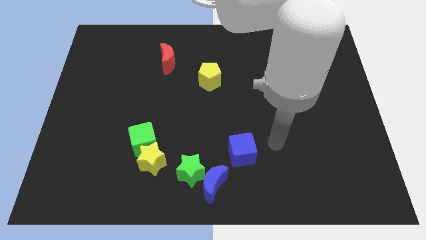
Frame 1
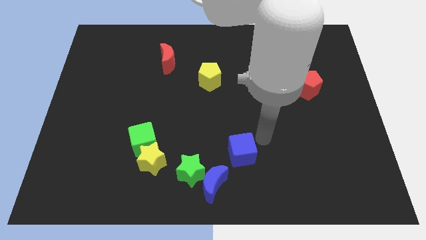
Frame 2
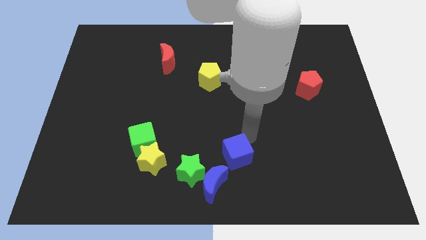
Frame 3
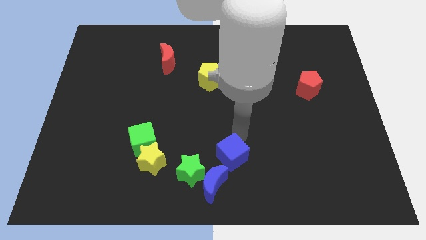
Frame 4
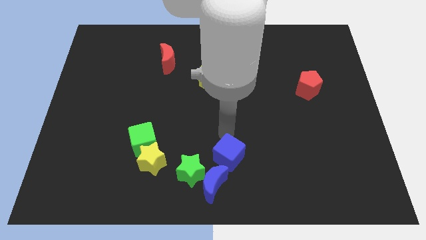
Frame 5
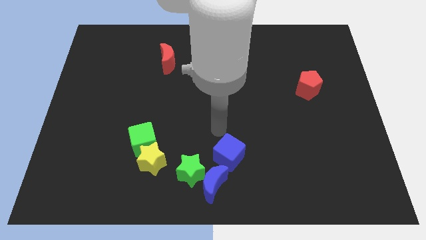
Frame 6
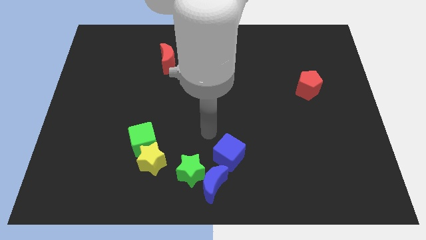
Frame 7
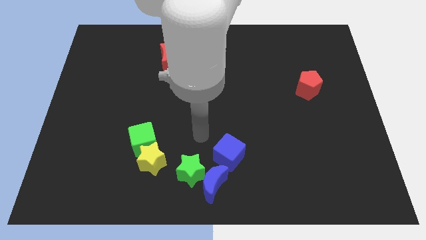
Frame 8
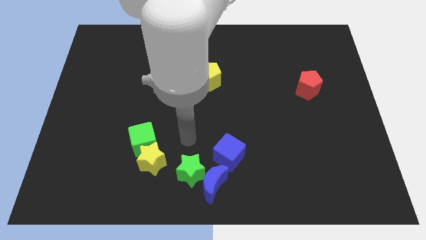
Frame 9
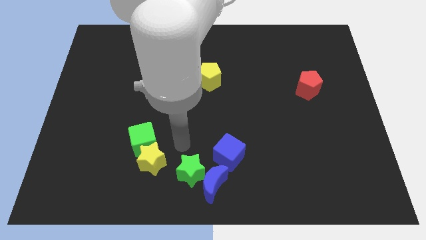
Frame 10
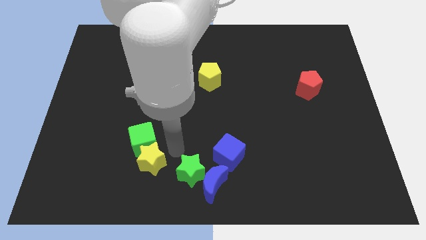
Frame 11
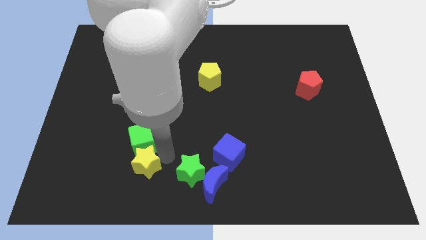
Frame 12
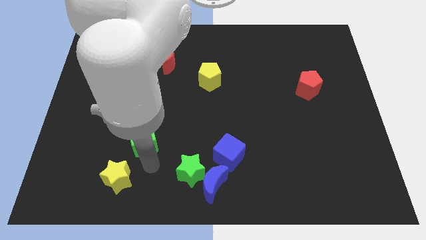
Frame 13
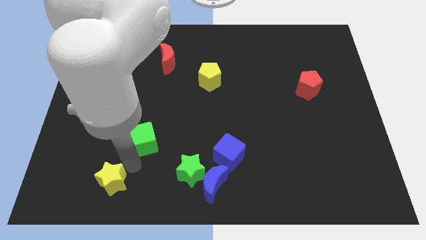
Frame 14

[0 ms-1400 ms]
move the green cube away from the yellow star

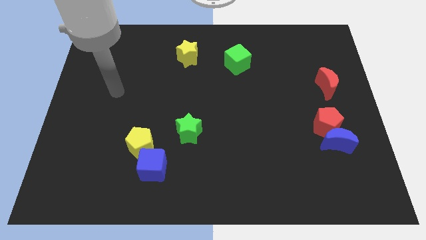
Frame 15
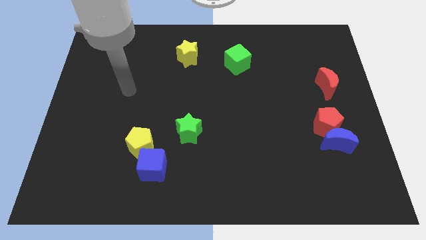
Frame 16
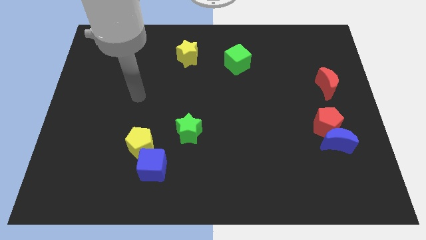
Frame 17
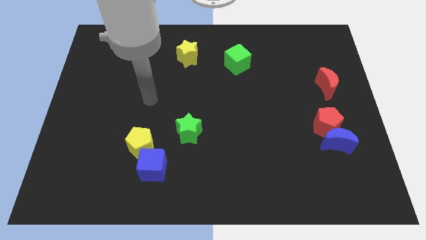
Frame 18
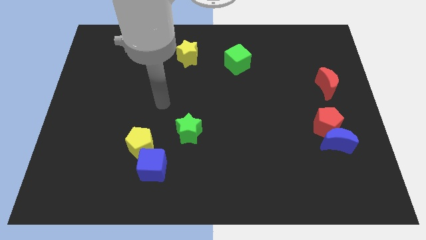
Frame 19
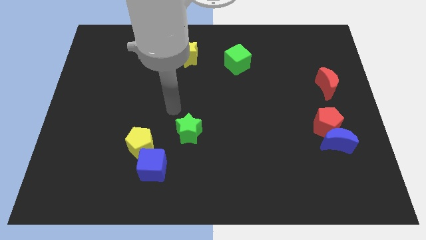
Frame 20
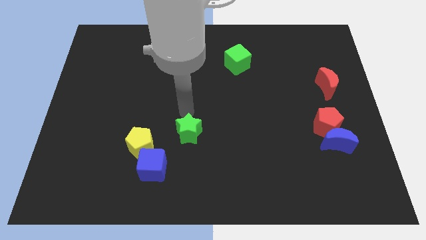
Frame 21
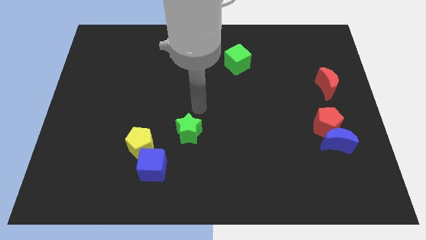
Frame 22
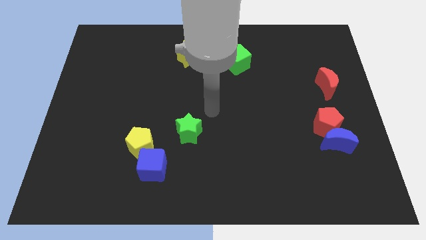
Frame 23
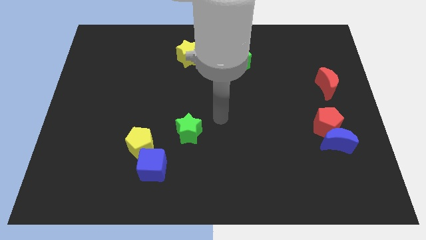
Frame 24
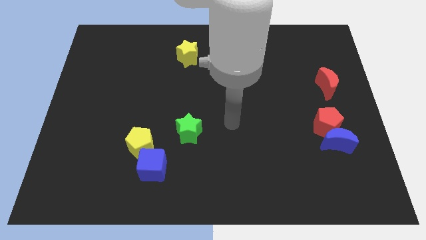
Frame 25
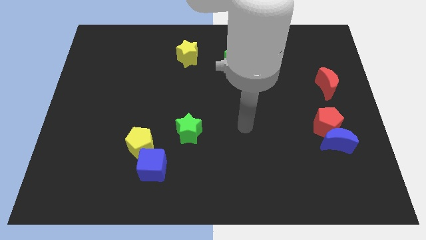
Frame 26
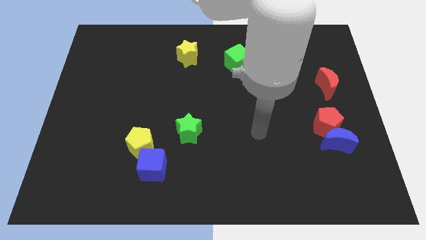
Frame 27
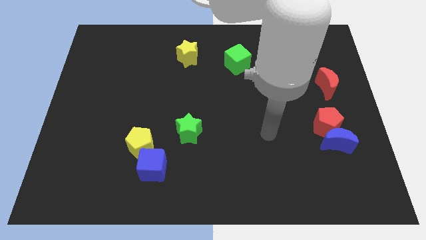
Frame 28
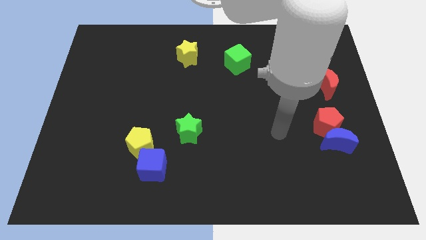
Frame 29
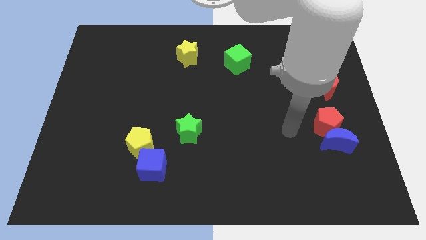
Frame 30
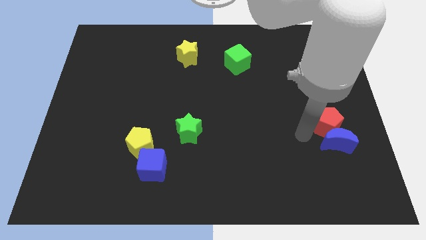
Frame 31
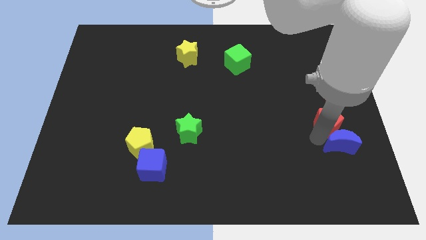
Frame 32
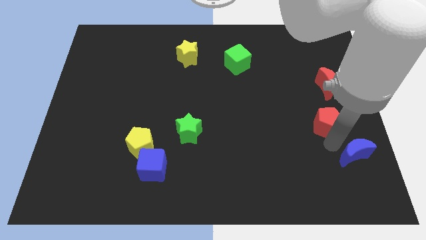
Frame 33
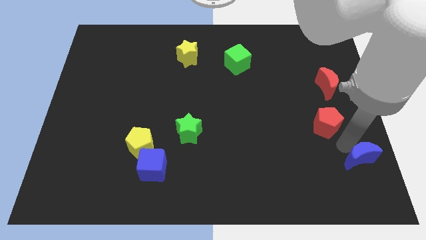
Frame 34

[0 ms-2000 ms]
separate the red pentagon from the blue moon

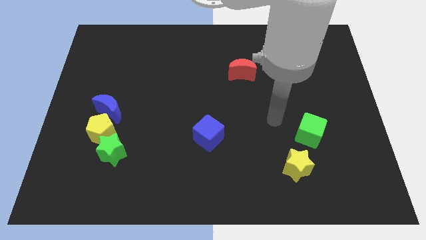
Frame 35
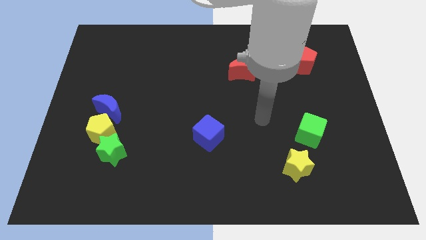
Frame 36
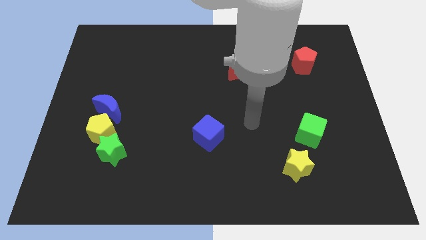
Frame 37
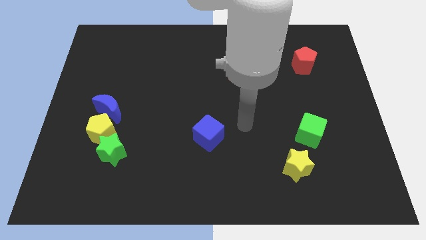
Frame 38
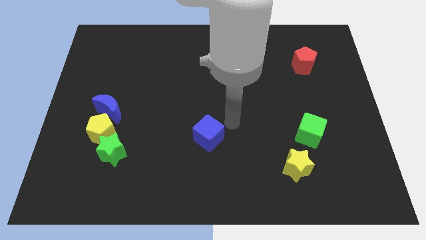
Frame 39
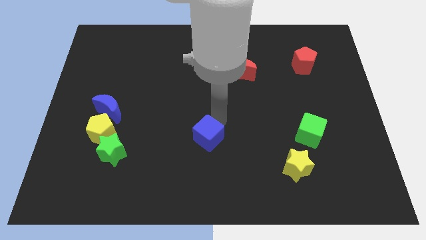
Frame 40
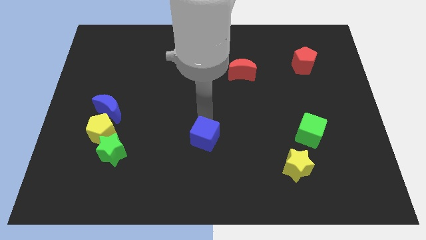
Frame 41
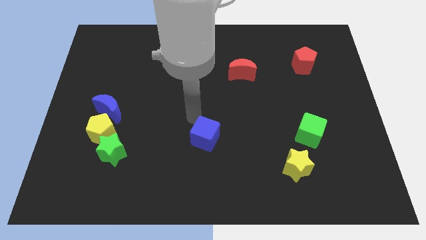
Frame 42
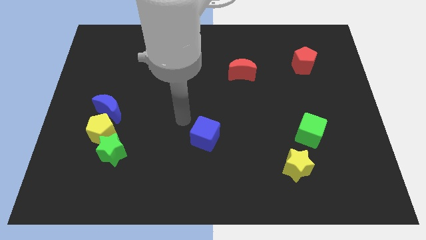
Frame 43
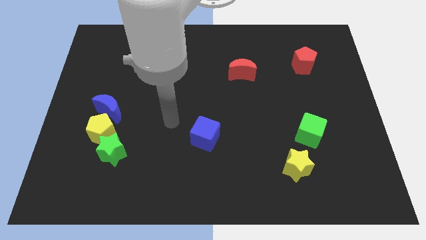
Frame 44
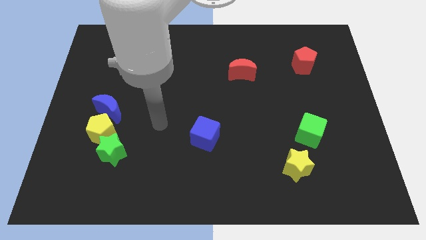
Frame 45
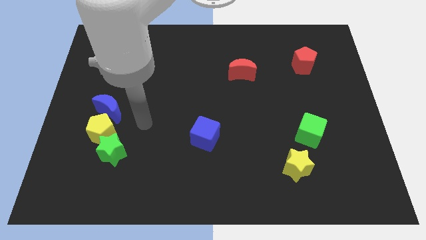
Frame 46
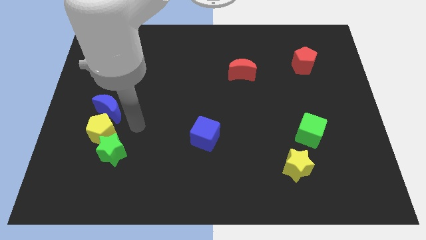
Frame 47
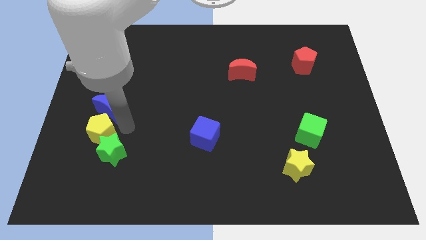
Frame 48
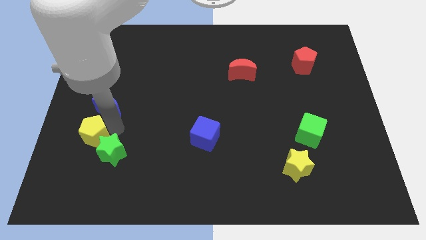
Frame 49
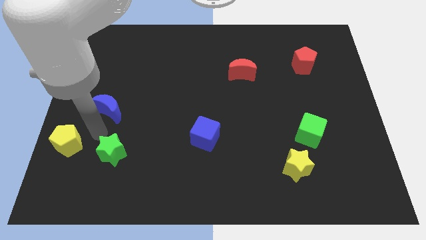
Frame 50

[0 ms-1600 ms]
pull the green star apart from the yellow pentagon

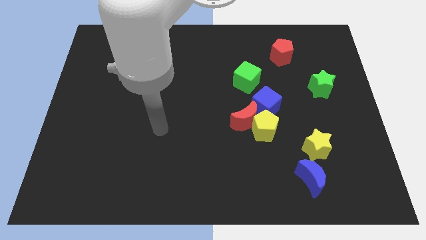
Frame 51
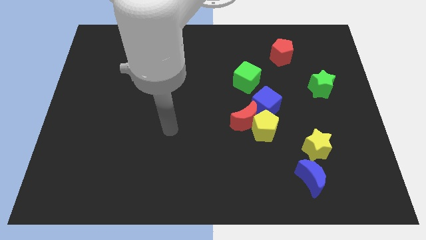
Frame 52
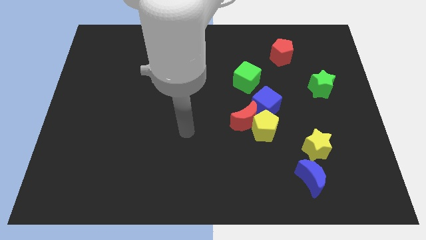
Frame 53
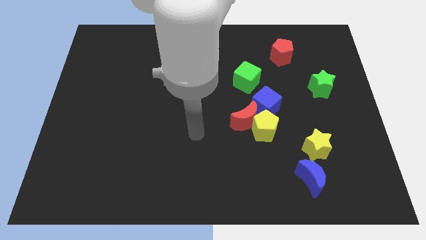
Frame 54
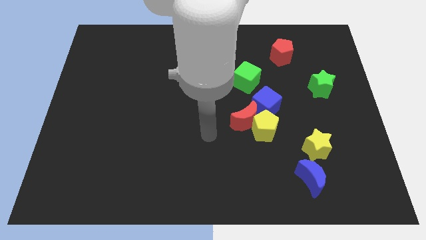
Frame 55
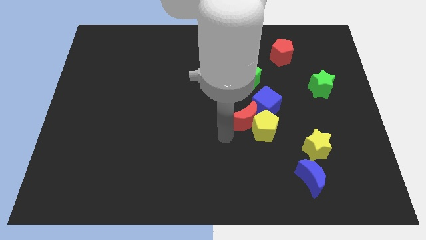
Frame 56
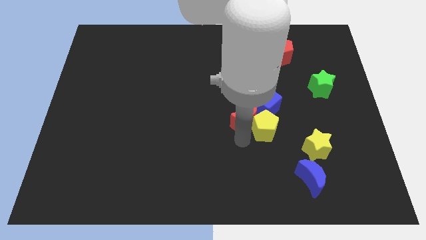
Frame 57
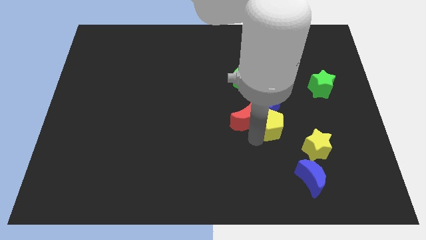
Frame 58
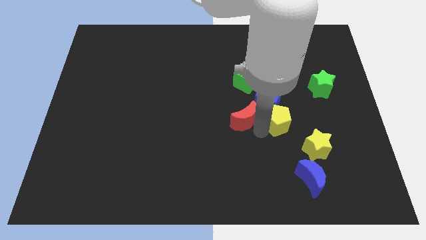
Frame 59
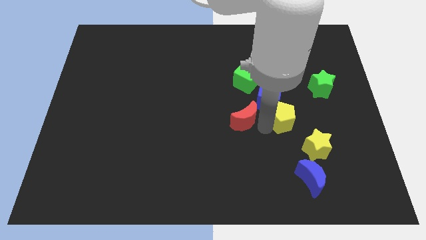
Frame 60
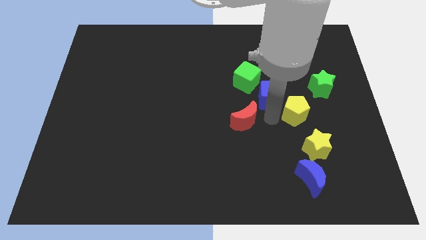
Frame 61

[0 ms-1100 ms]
separate the red moon from the yellow pentagon and blue cube

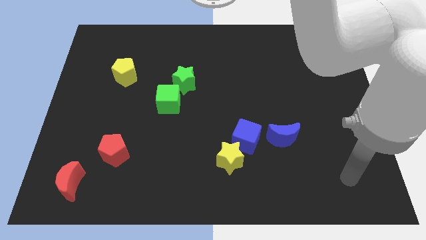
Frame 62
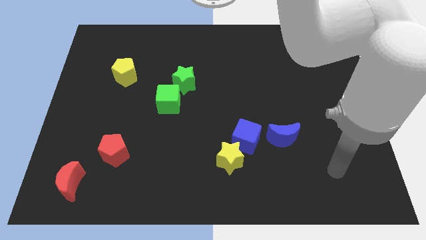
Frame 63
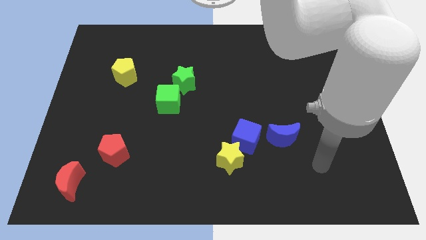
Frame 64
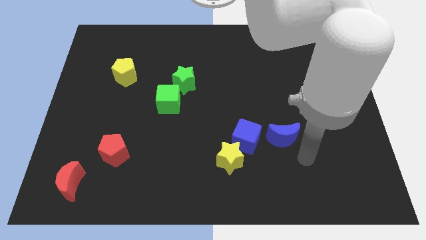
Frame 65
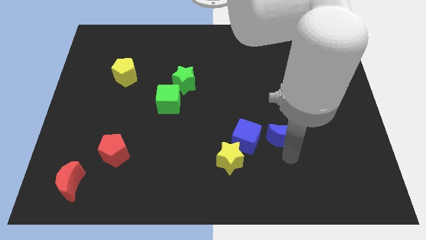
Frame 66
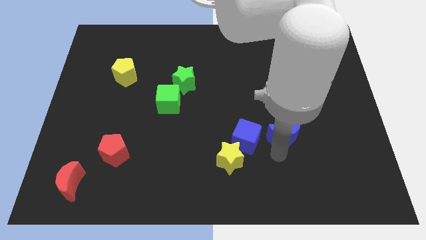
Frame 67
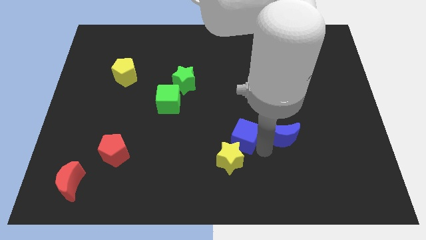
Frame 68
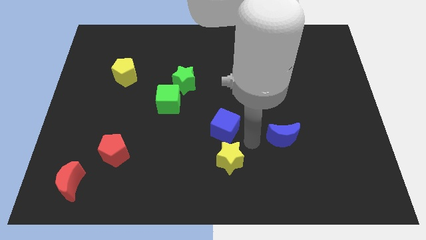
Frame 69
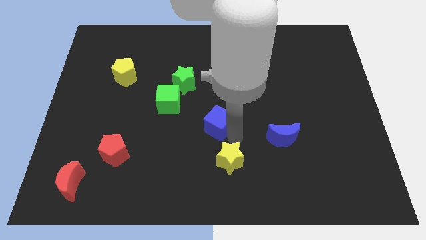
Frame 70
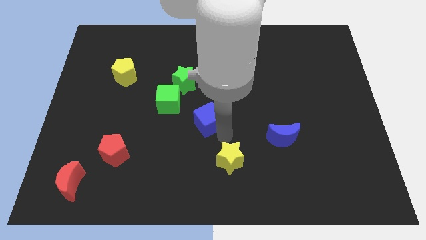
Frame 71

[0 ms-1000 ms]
move the yellow star away from the blue cube

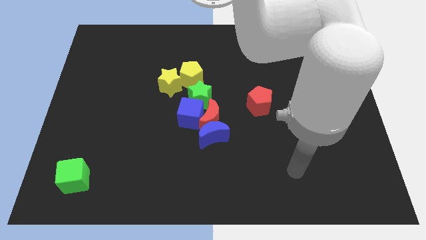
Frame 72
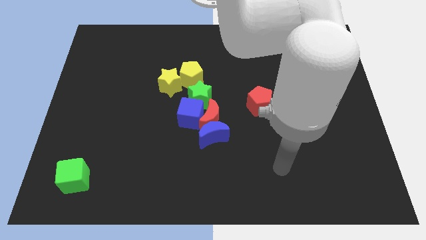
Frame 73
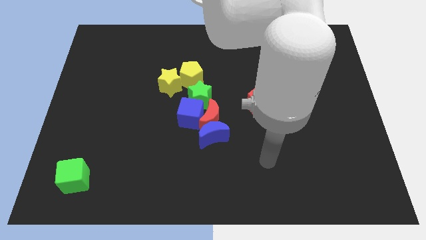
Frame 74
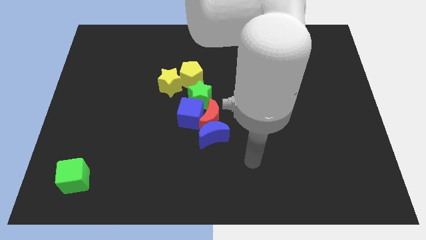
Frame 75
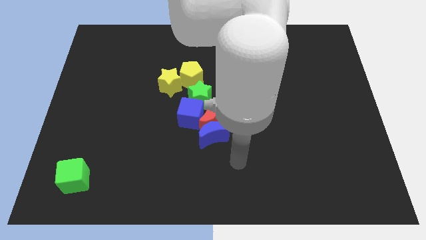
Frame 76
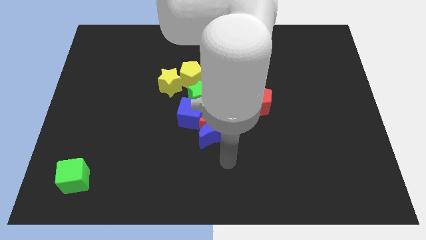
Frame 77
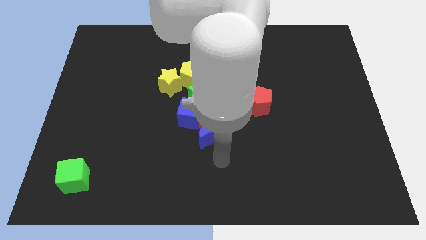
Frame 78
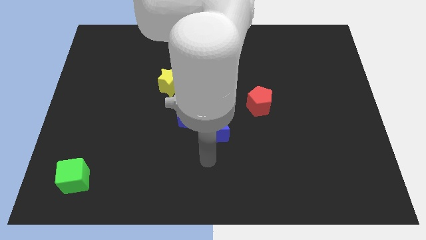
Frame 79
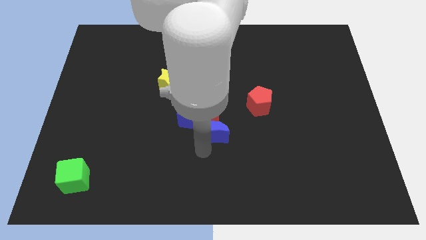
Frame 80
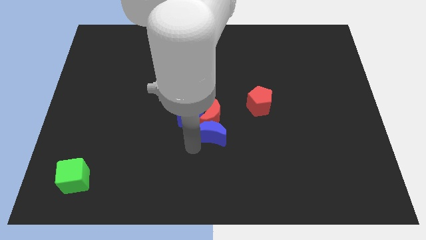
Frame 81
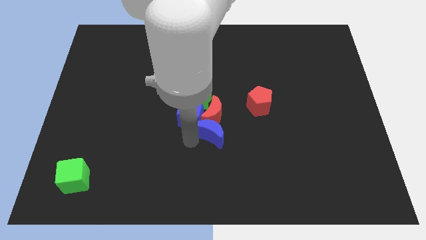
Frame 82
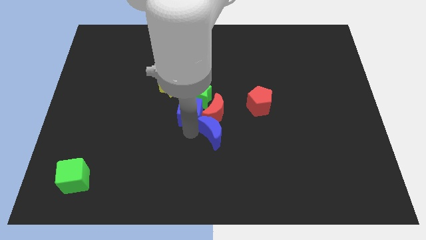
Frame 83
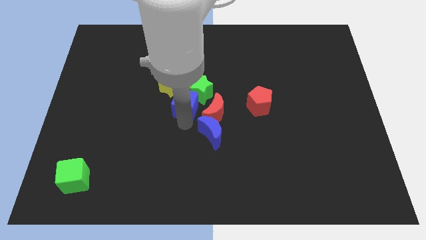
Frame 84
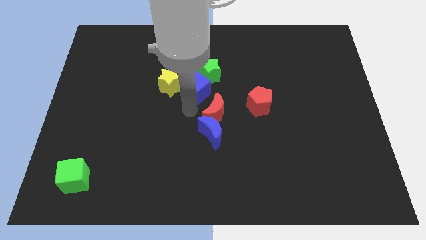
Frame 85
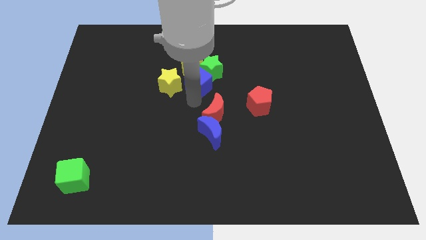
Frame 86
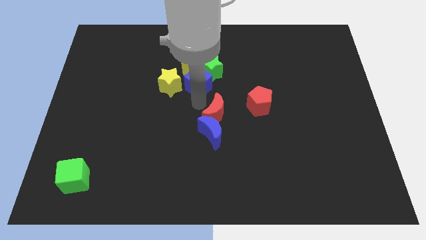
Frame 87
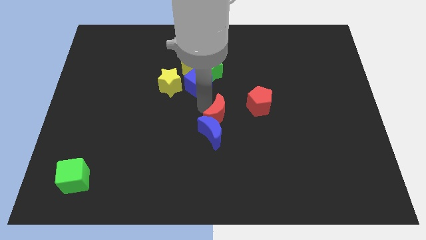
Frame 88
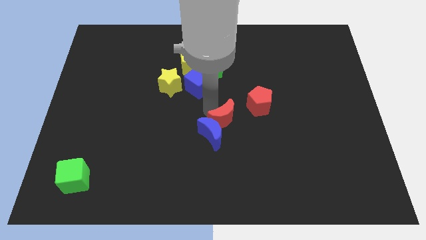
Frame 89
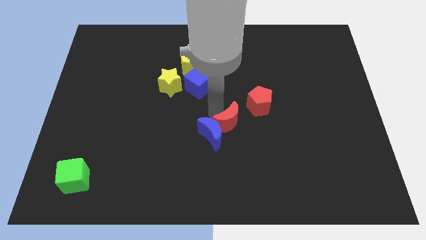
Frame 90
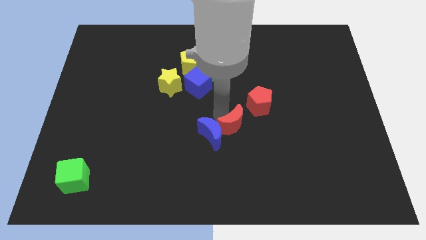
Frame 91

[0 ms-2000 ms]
pull the red moon apart from the blue moon, blue cube, and green star

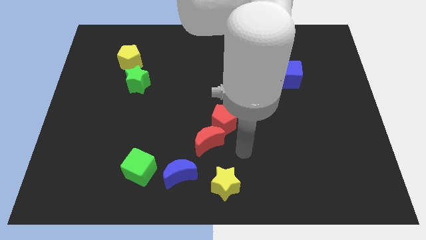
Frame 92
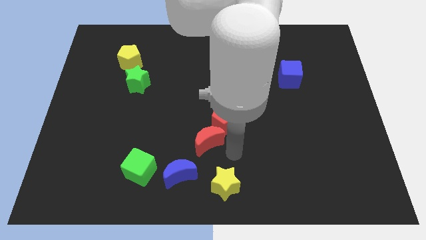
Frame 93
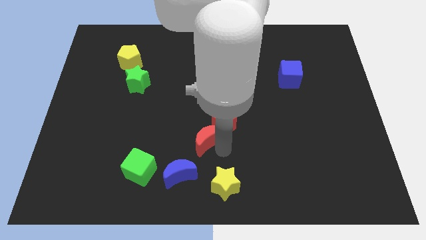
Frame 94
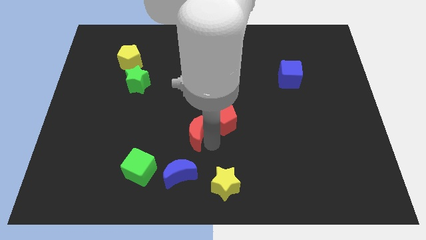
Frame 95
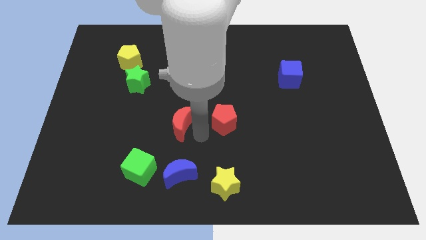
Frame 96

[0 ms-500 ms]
separate the red pentagon from the red moon
